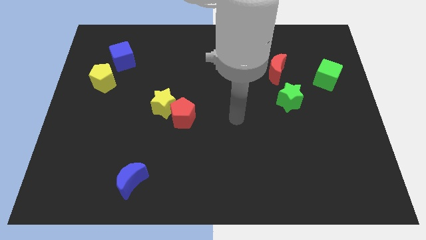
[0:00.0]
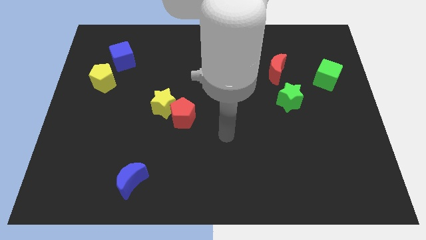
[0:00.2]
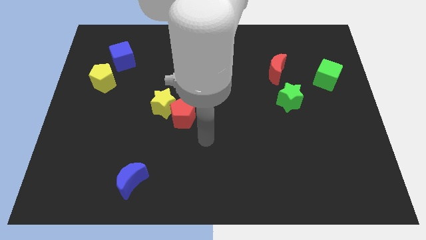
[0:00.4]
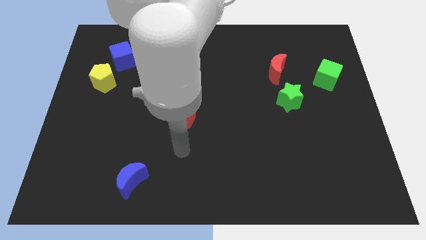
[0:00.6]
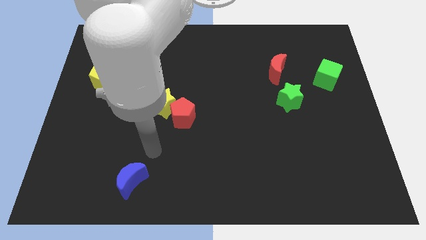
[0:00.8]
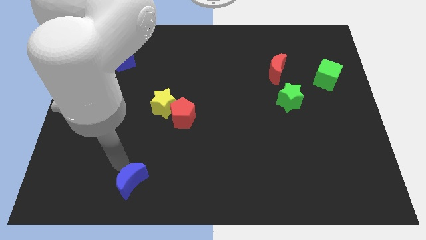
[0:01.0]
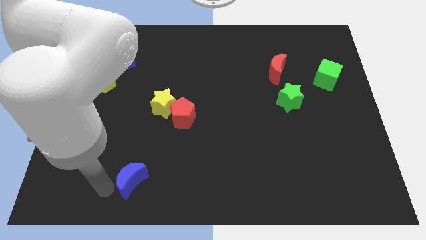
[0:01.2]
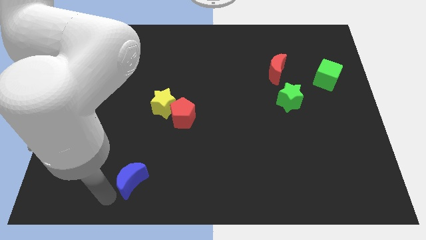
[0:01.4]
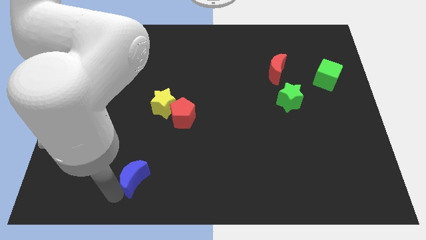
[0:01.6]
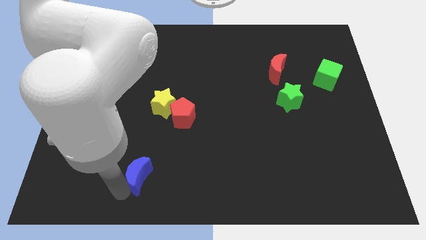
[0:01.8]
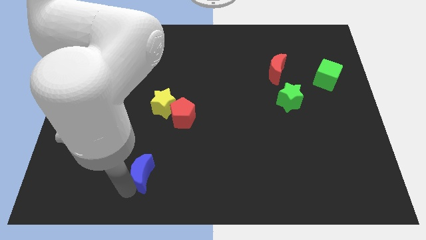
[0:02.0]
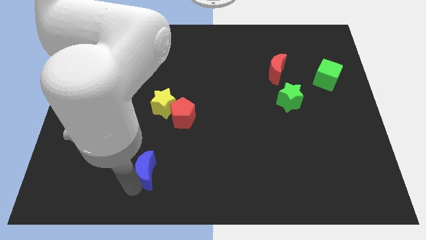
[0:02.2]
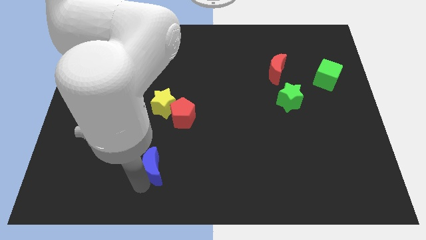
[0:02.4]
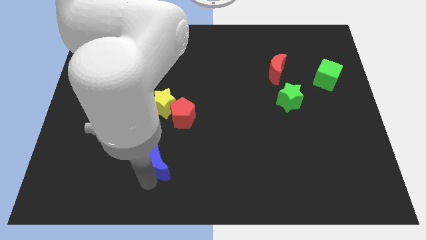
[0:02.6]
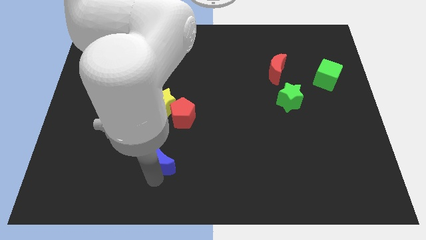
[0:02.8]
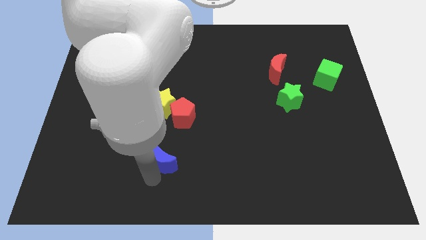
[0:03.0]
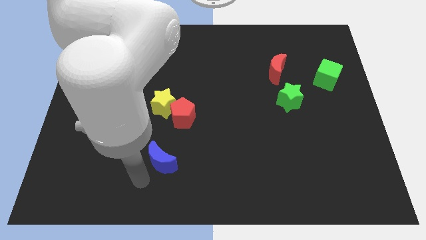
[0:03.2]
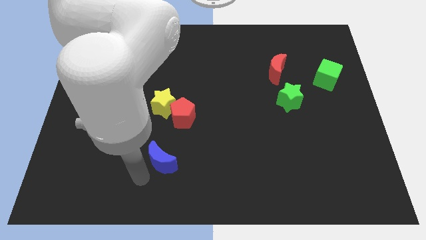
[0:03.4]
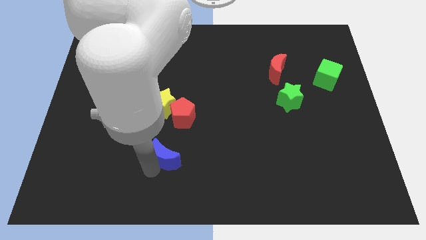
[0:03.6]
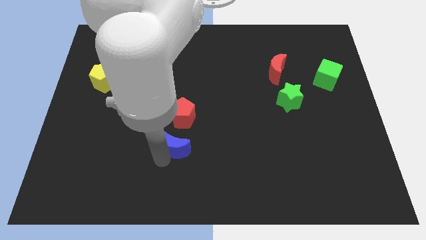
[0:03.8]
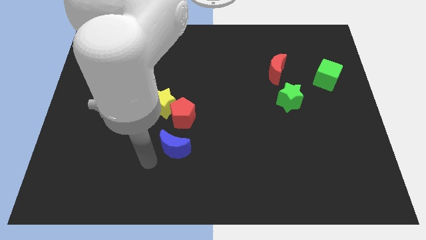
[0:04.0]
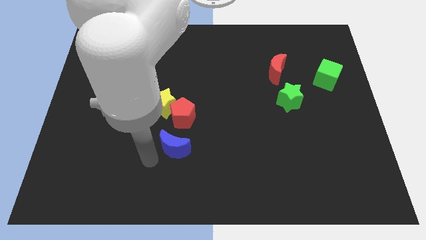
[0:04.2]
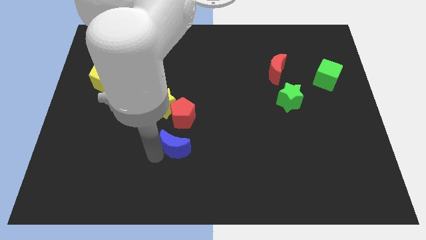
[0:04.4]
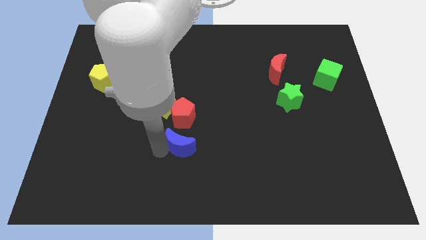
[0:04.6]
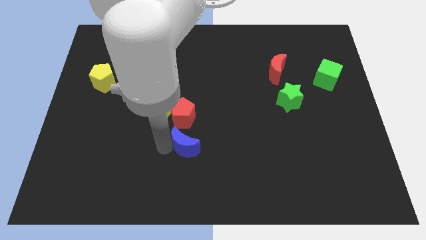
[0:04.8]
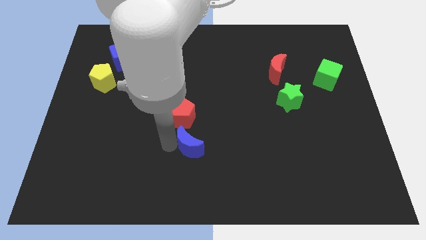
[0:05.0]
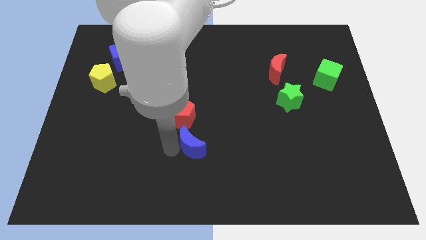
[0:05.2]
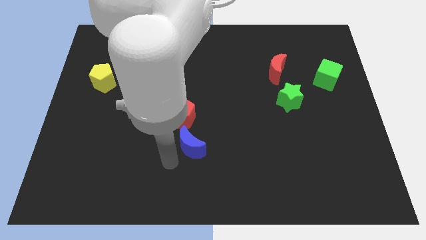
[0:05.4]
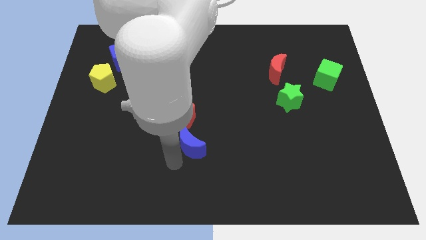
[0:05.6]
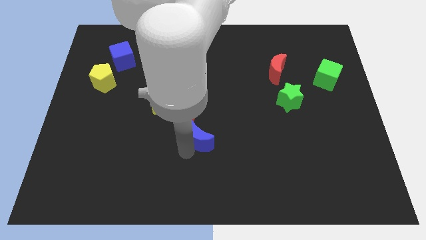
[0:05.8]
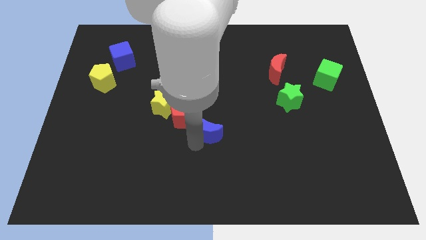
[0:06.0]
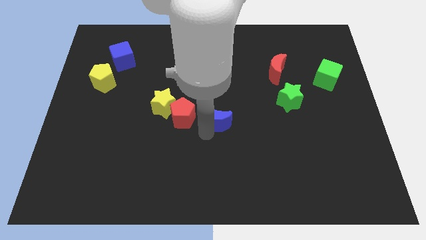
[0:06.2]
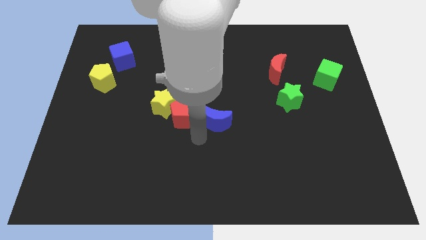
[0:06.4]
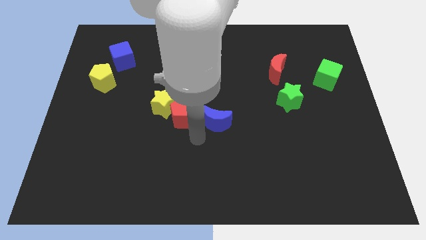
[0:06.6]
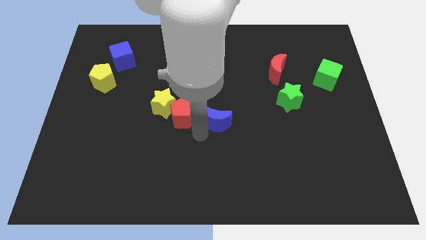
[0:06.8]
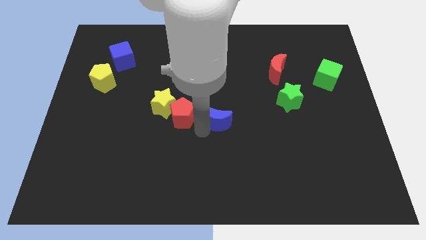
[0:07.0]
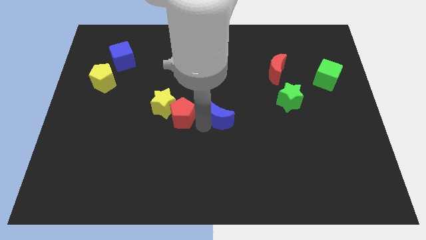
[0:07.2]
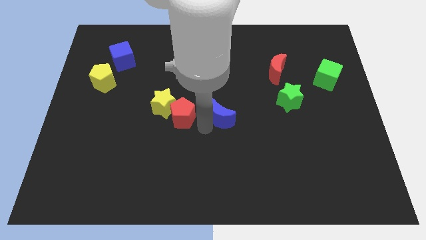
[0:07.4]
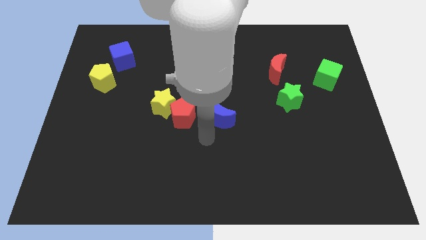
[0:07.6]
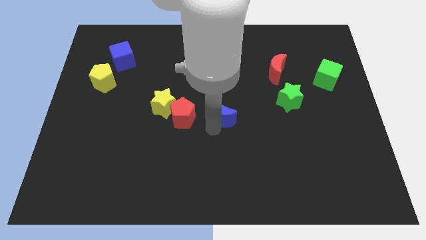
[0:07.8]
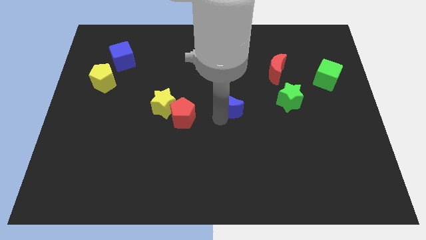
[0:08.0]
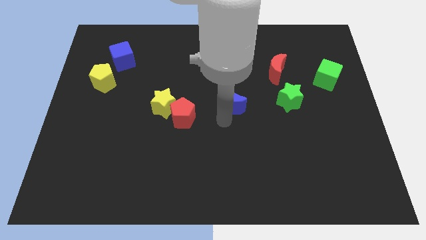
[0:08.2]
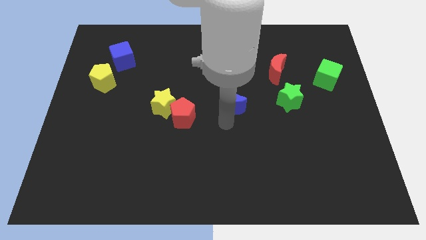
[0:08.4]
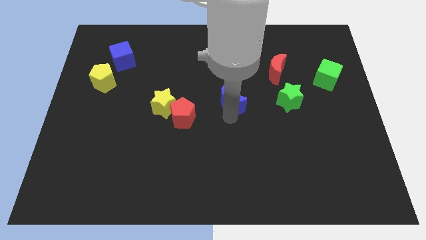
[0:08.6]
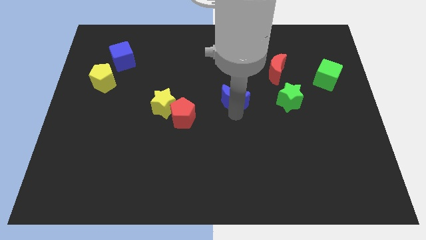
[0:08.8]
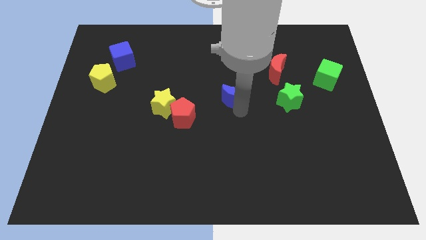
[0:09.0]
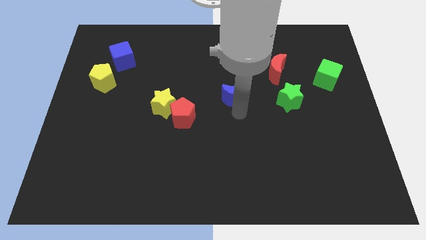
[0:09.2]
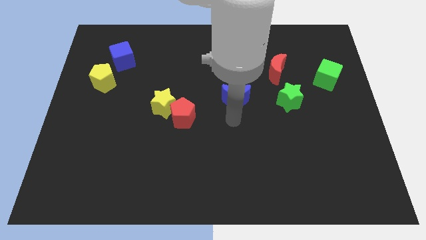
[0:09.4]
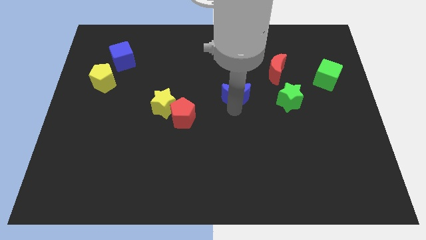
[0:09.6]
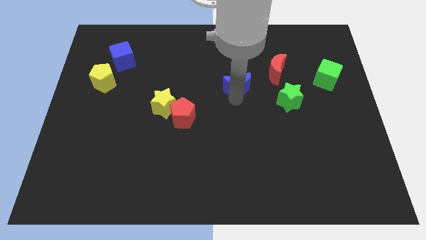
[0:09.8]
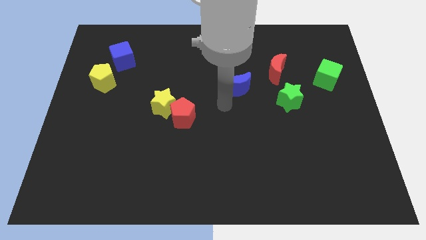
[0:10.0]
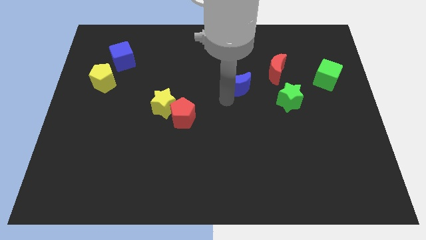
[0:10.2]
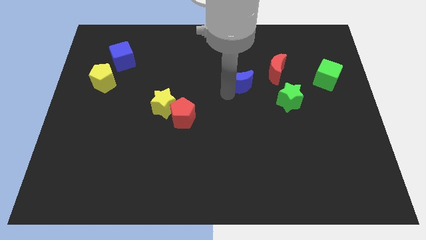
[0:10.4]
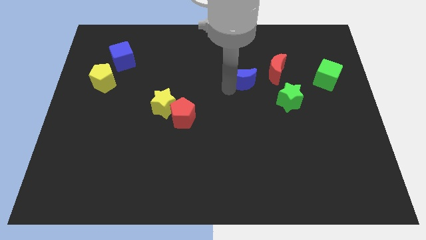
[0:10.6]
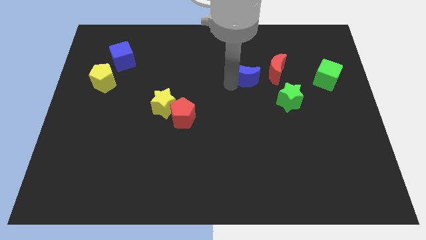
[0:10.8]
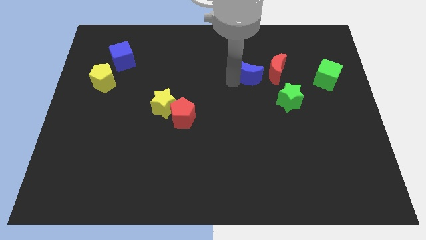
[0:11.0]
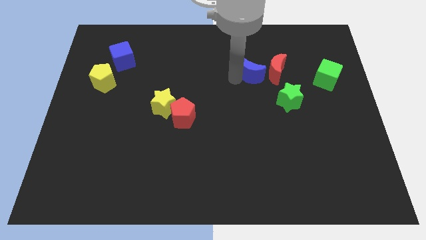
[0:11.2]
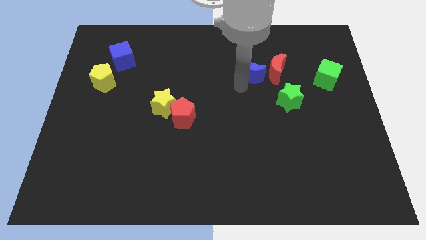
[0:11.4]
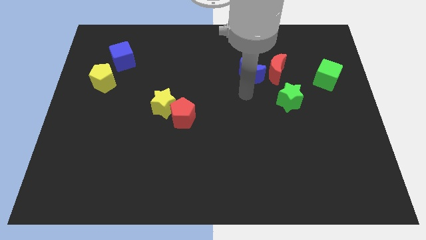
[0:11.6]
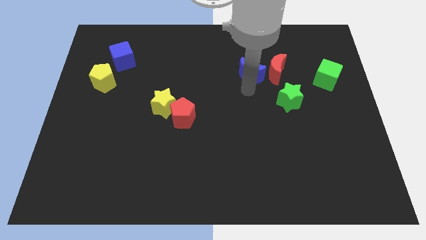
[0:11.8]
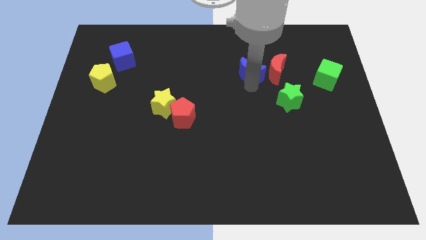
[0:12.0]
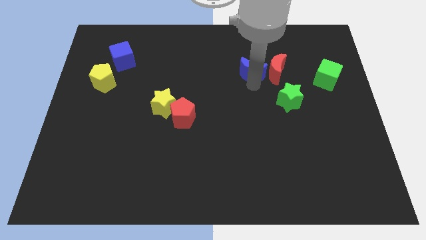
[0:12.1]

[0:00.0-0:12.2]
move the blue moon to the top left side of the red moon
